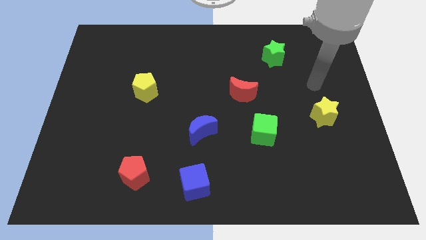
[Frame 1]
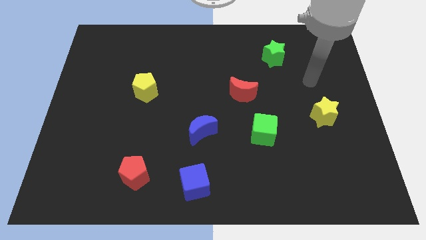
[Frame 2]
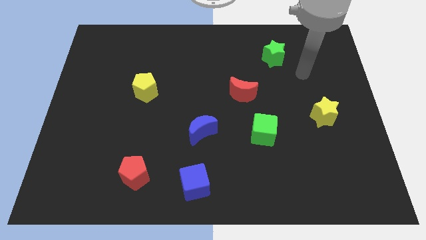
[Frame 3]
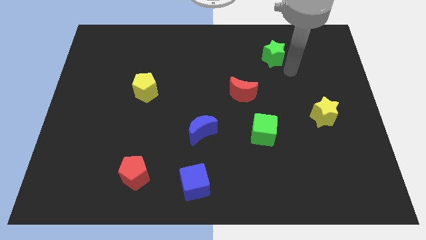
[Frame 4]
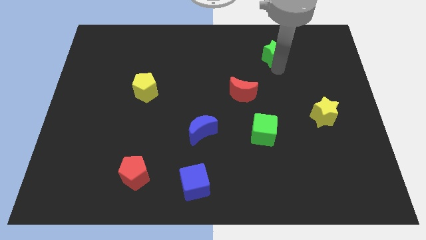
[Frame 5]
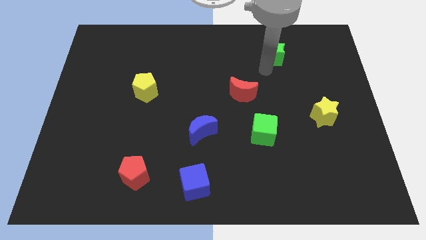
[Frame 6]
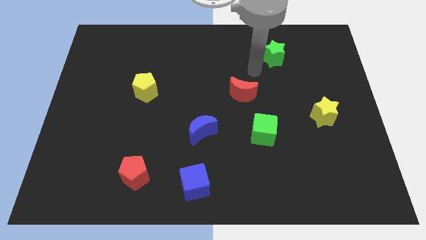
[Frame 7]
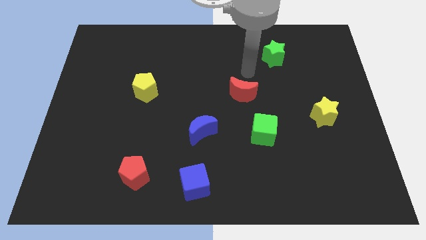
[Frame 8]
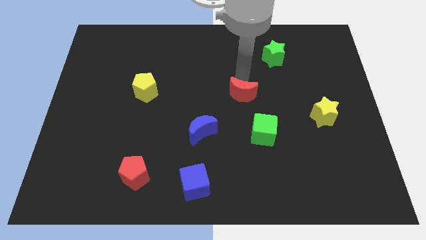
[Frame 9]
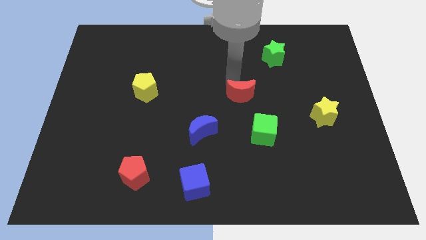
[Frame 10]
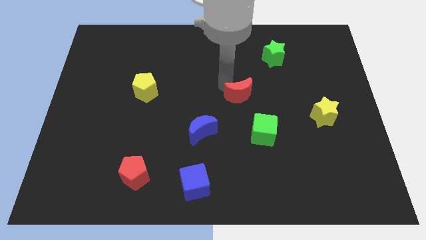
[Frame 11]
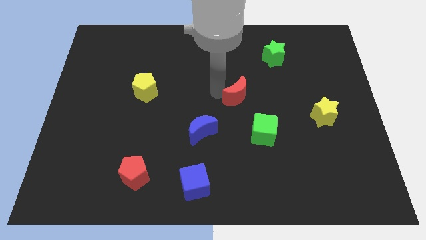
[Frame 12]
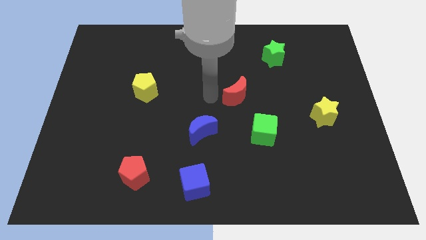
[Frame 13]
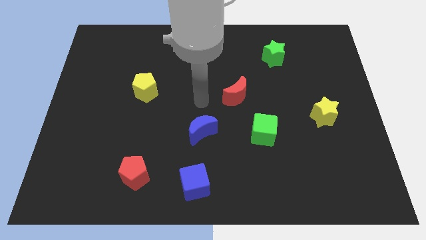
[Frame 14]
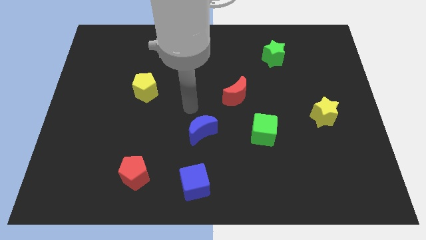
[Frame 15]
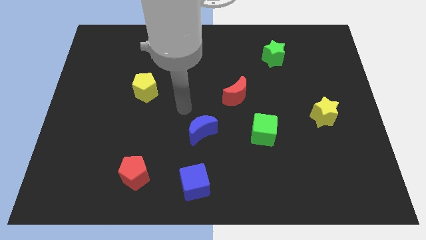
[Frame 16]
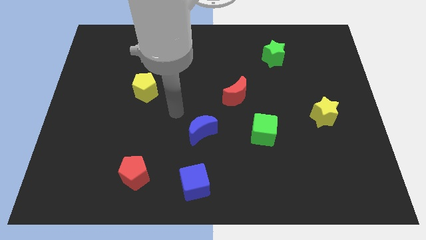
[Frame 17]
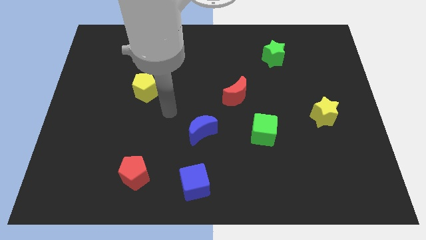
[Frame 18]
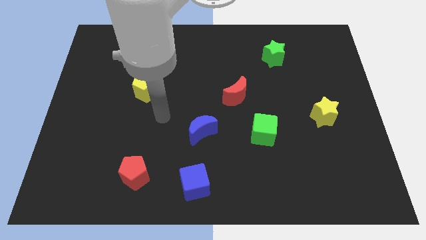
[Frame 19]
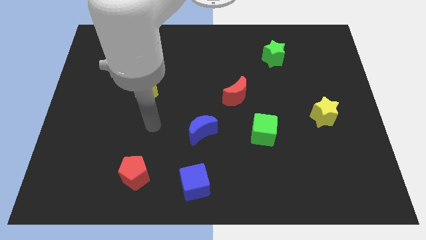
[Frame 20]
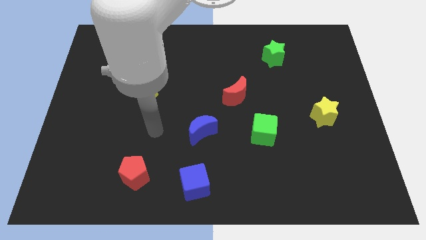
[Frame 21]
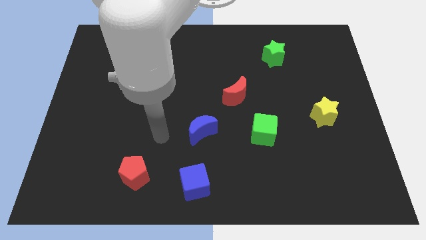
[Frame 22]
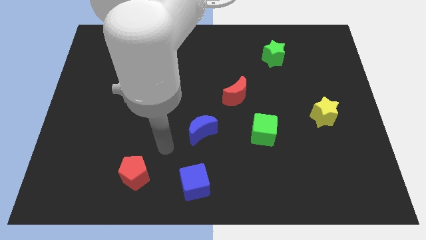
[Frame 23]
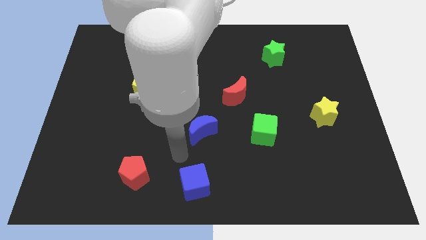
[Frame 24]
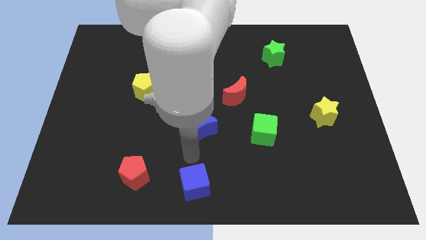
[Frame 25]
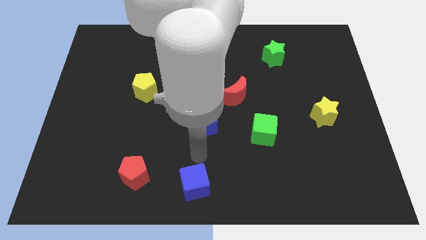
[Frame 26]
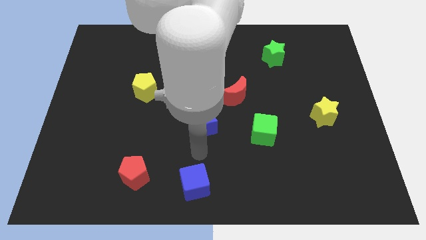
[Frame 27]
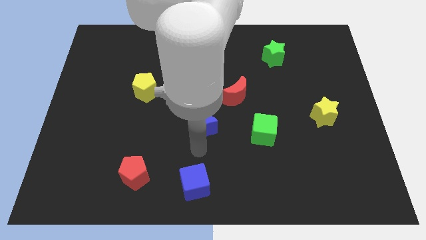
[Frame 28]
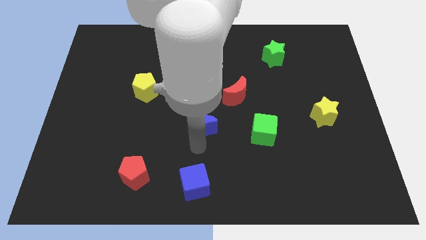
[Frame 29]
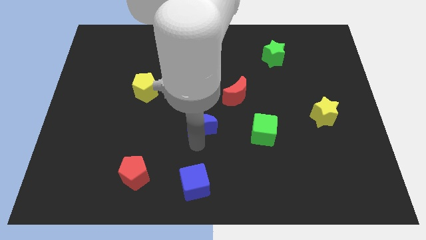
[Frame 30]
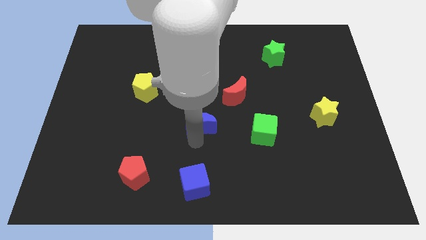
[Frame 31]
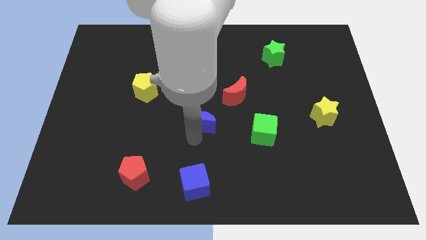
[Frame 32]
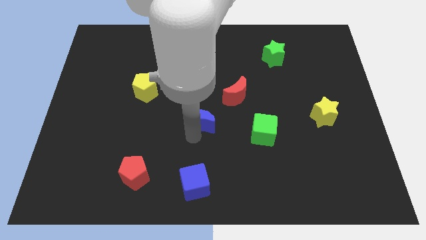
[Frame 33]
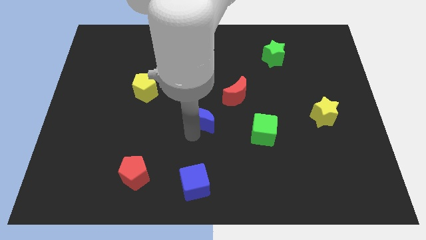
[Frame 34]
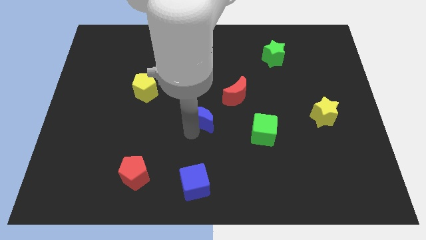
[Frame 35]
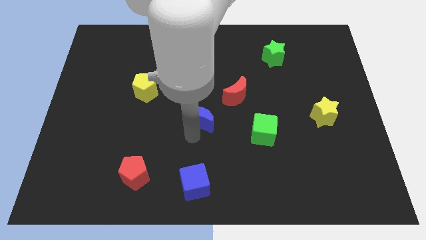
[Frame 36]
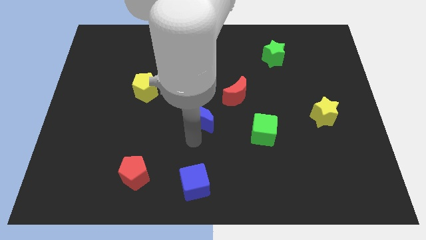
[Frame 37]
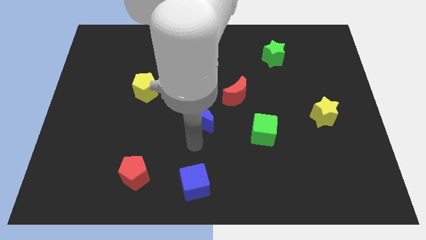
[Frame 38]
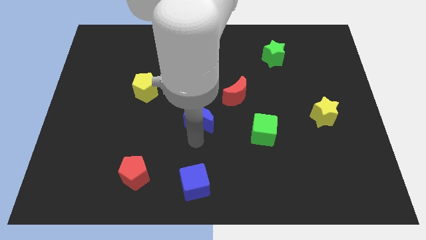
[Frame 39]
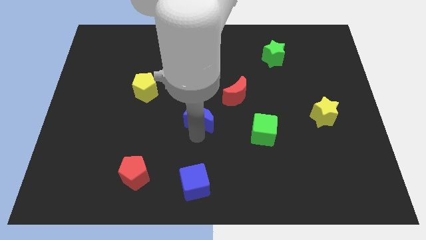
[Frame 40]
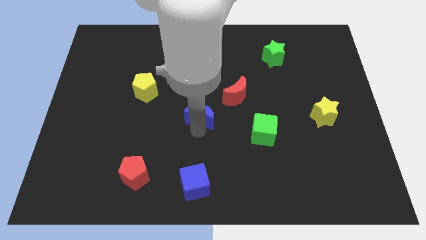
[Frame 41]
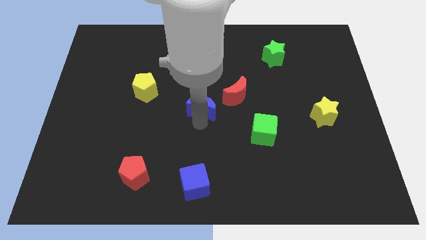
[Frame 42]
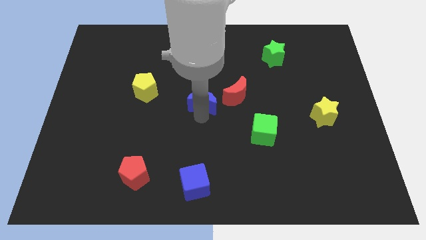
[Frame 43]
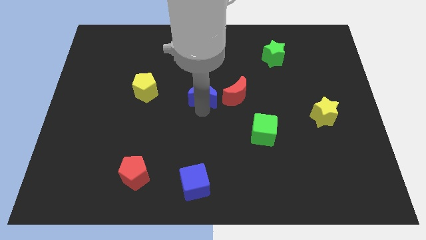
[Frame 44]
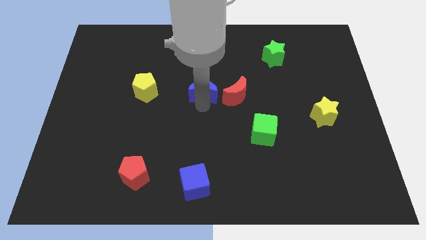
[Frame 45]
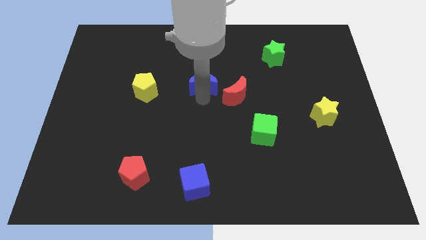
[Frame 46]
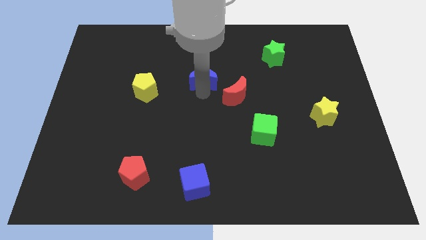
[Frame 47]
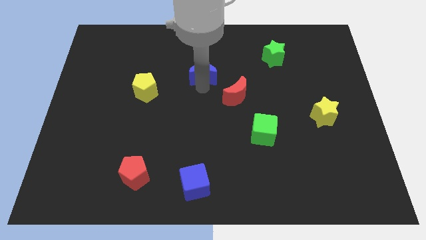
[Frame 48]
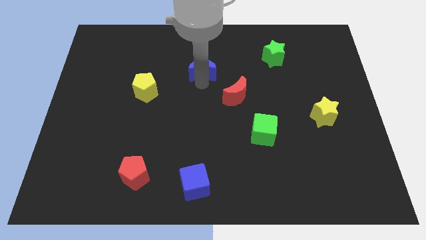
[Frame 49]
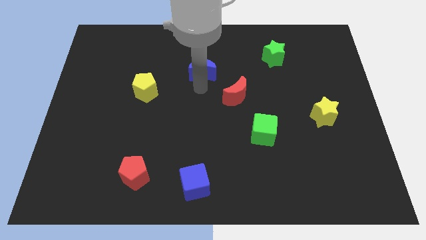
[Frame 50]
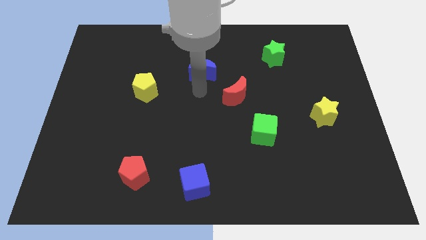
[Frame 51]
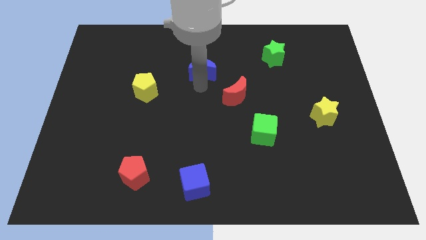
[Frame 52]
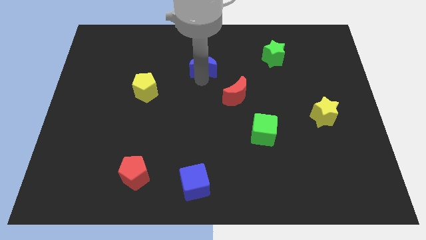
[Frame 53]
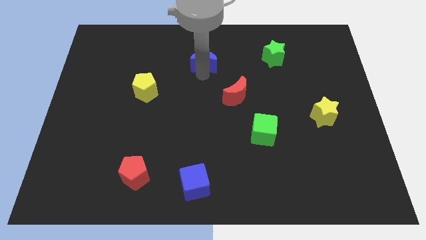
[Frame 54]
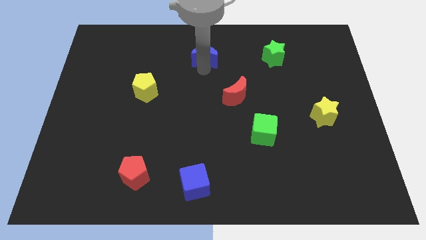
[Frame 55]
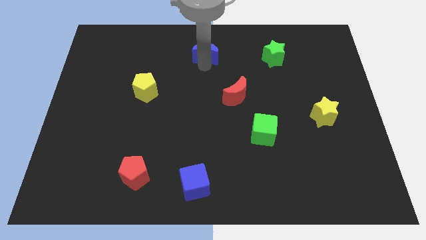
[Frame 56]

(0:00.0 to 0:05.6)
push the blue moon to the top

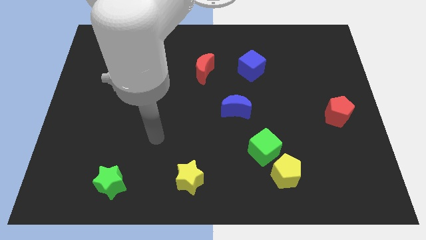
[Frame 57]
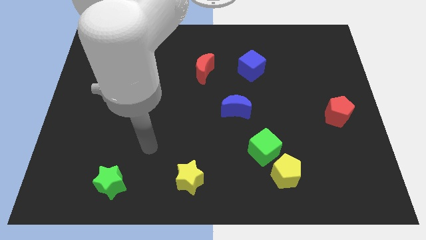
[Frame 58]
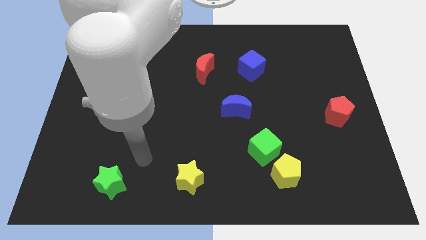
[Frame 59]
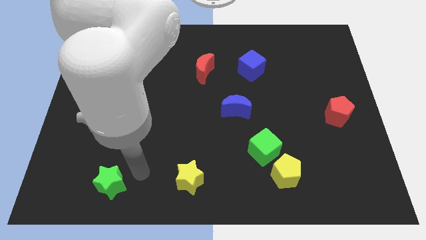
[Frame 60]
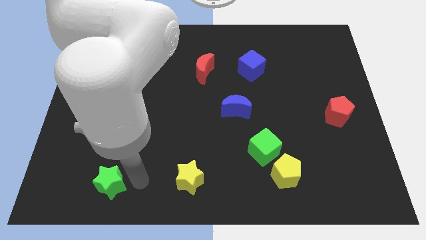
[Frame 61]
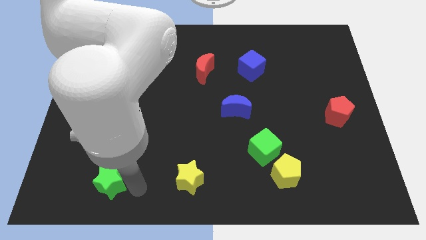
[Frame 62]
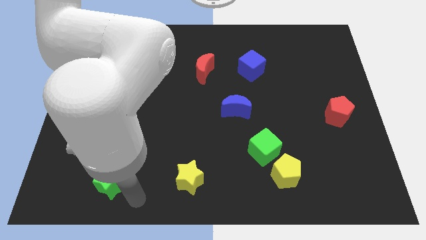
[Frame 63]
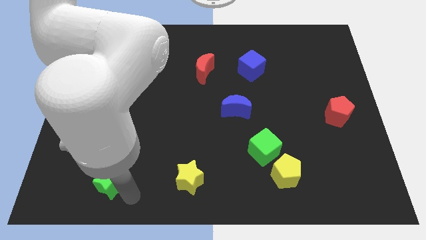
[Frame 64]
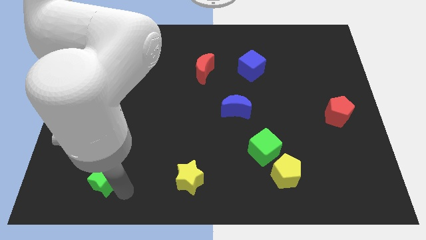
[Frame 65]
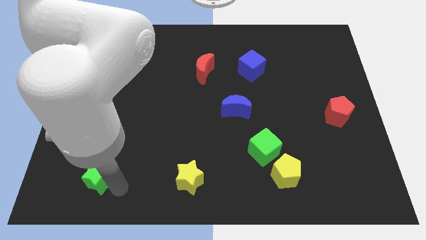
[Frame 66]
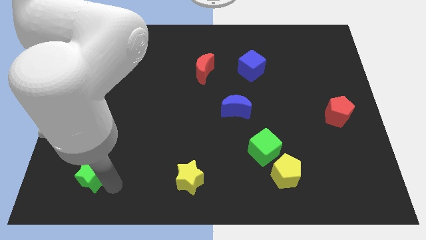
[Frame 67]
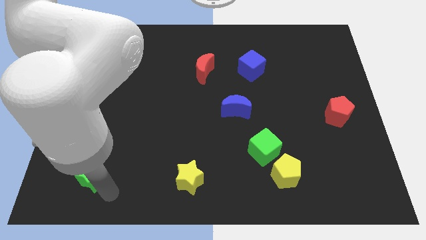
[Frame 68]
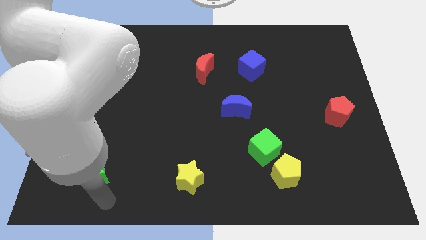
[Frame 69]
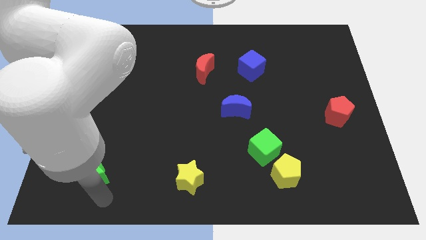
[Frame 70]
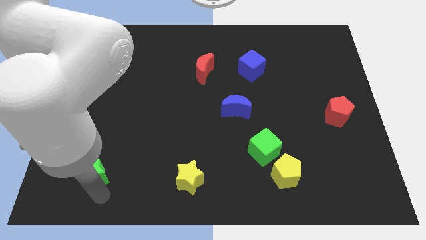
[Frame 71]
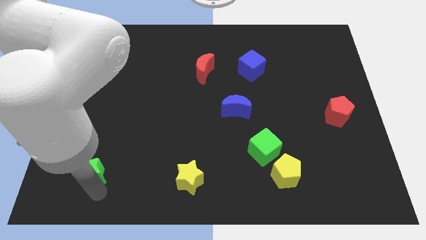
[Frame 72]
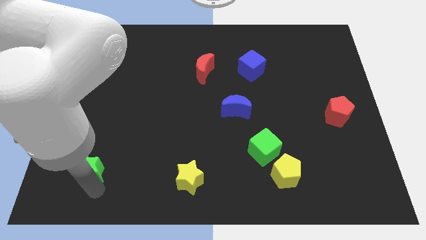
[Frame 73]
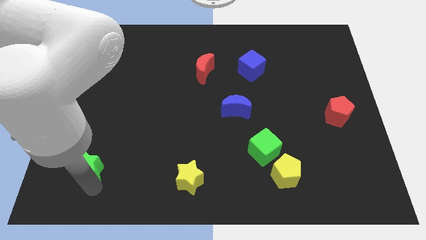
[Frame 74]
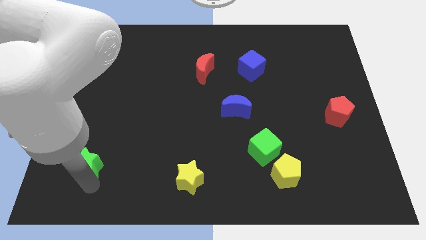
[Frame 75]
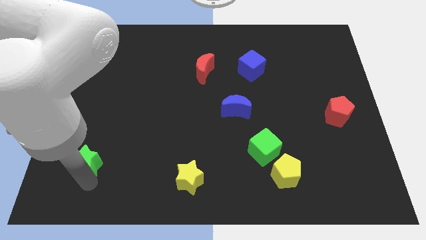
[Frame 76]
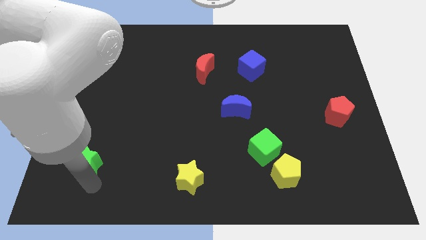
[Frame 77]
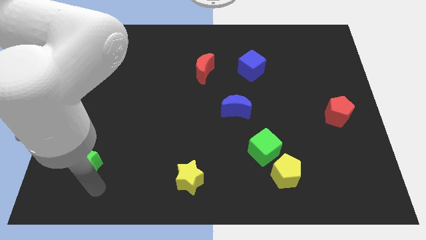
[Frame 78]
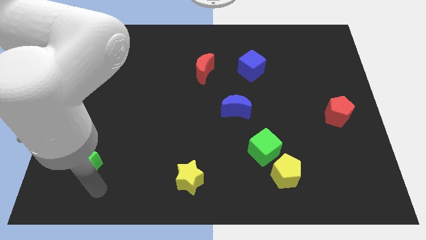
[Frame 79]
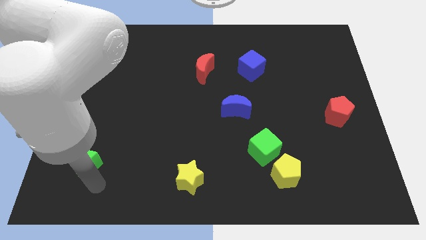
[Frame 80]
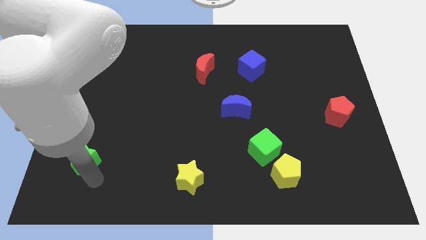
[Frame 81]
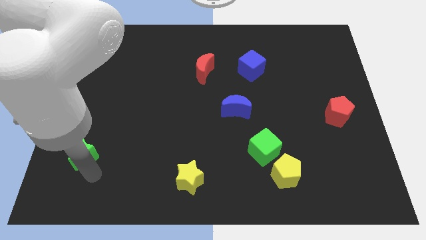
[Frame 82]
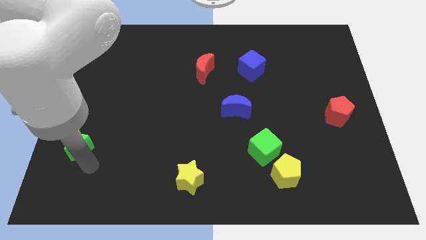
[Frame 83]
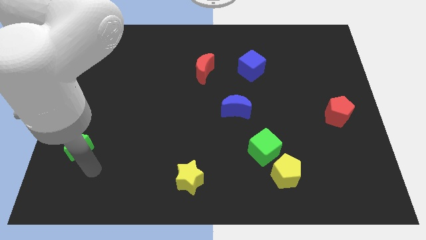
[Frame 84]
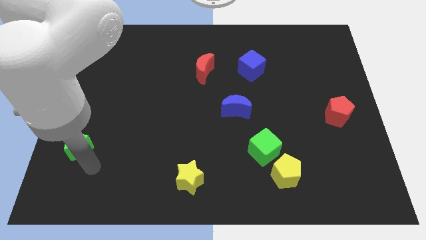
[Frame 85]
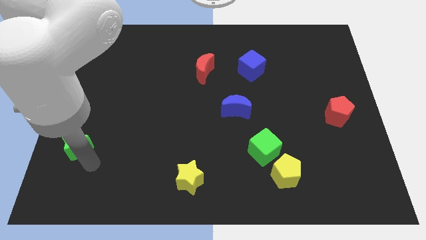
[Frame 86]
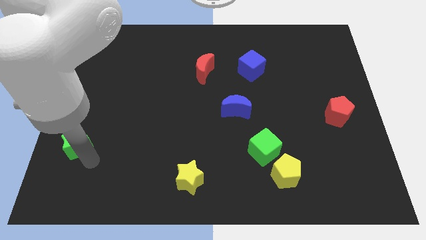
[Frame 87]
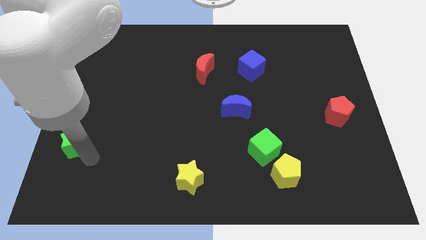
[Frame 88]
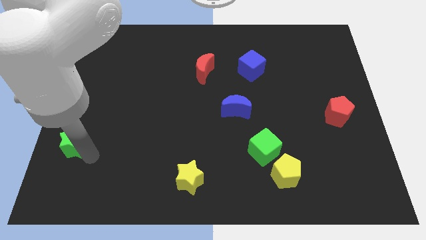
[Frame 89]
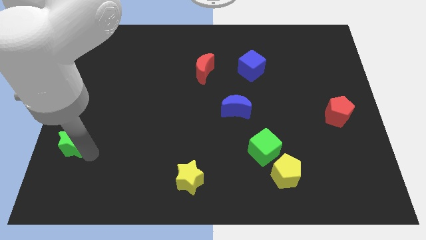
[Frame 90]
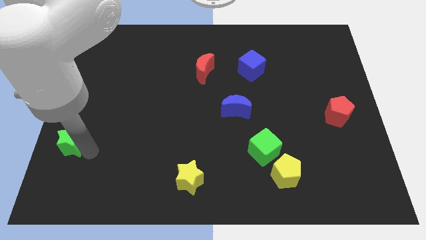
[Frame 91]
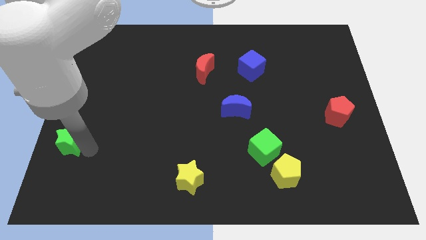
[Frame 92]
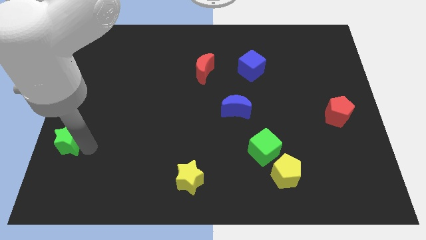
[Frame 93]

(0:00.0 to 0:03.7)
move the green star to the left side of the board
